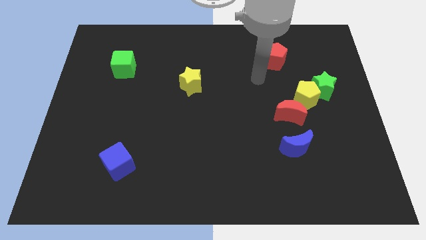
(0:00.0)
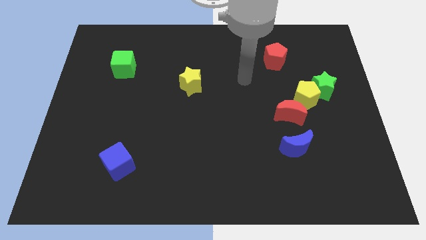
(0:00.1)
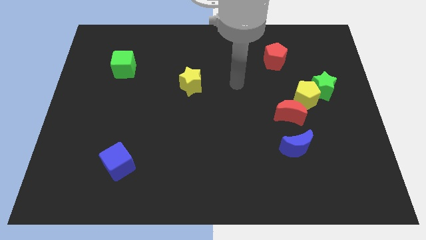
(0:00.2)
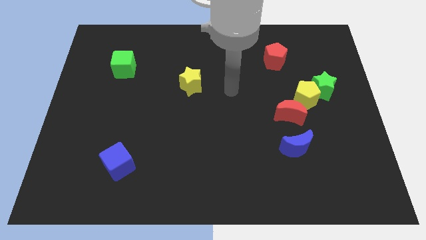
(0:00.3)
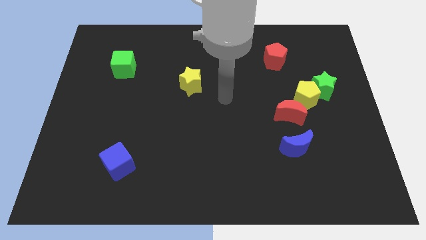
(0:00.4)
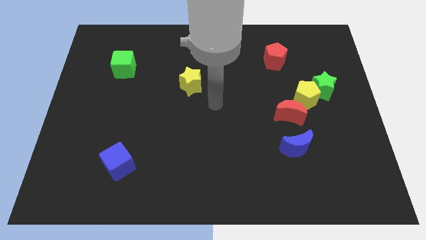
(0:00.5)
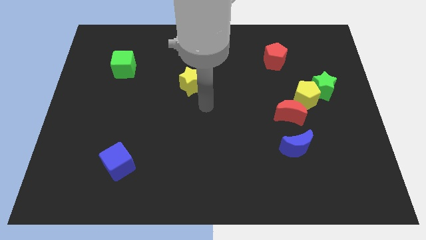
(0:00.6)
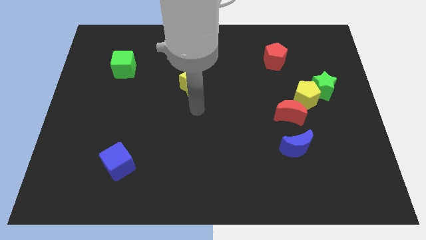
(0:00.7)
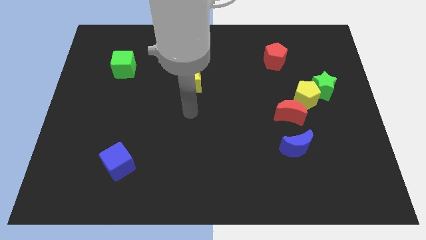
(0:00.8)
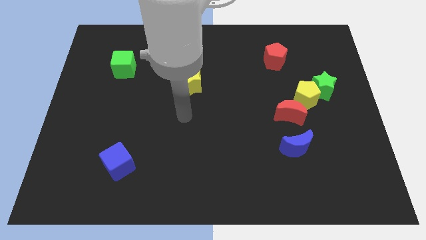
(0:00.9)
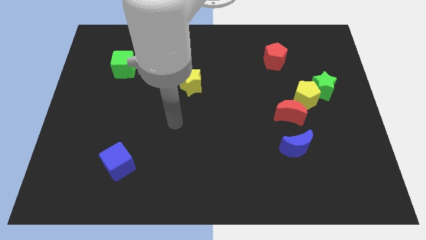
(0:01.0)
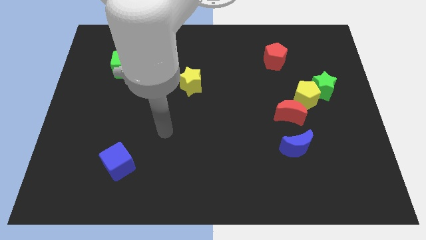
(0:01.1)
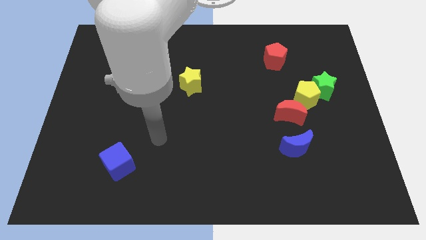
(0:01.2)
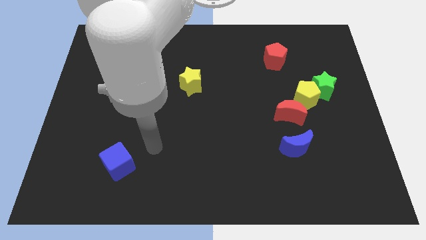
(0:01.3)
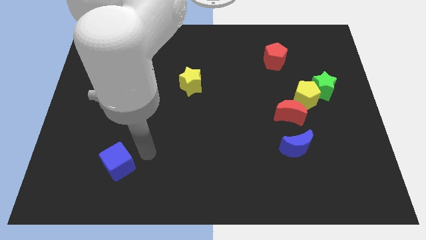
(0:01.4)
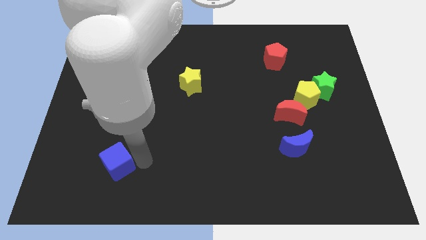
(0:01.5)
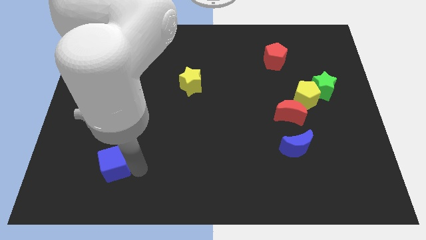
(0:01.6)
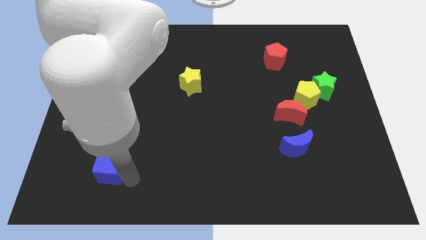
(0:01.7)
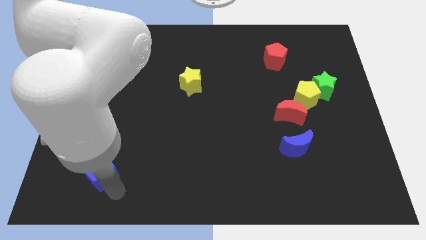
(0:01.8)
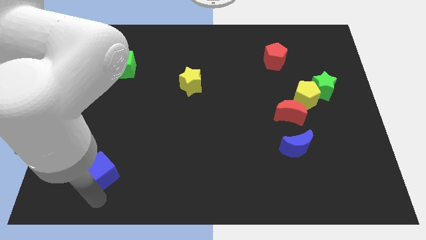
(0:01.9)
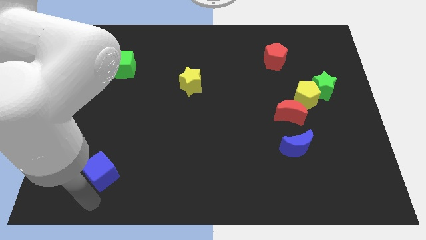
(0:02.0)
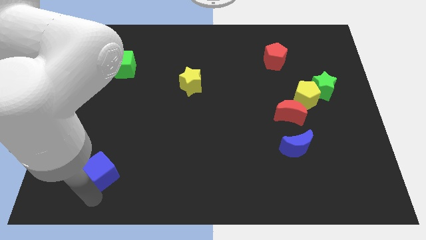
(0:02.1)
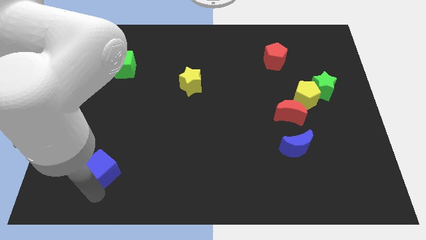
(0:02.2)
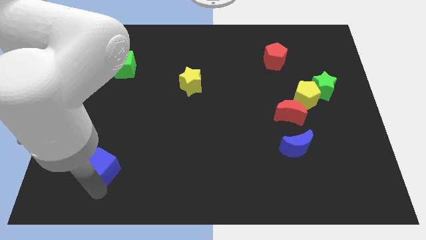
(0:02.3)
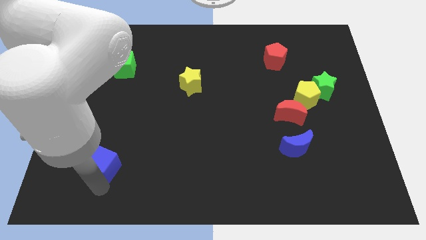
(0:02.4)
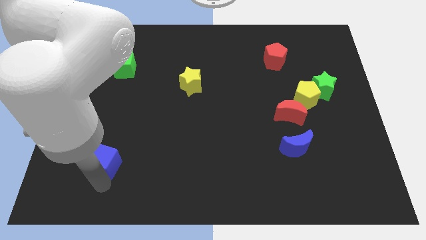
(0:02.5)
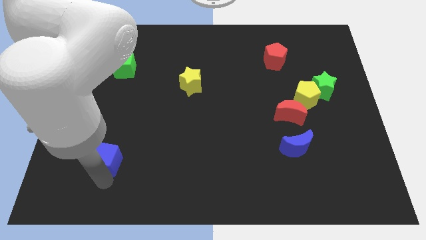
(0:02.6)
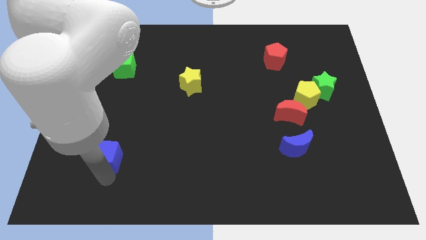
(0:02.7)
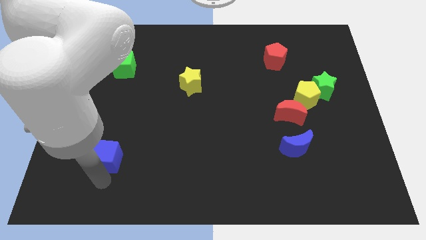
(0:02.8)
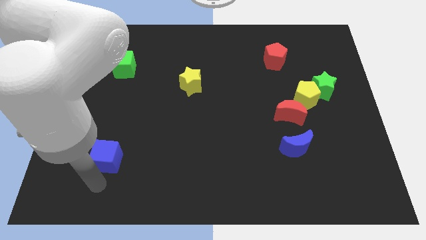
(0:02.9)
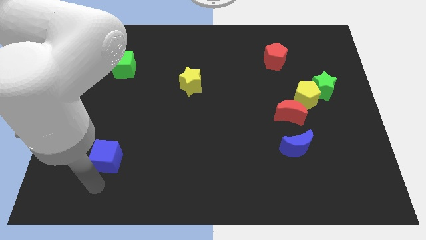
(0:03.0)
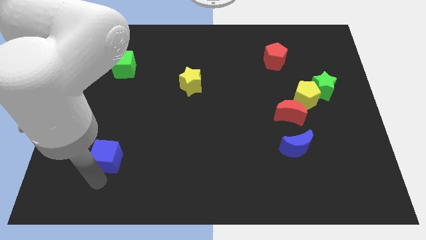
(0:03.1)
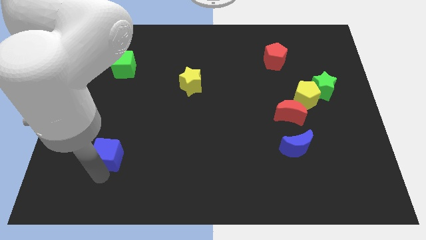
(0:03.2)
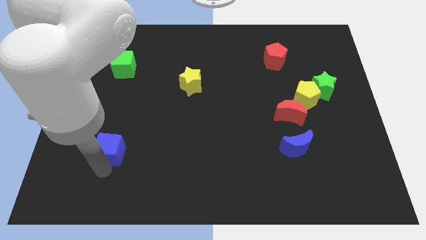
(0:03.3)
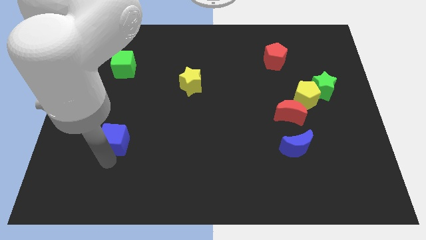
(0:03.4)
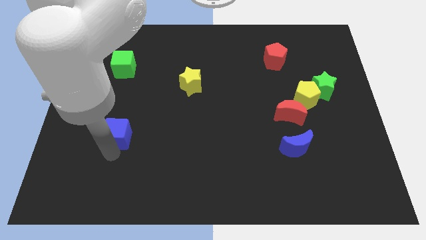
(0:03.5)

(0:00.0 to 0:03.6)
slightly push the blue cube up

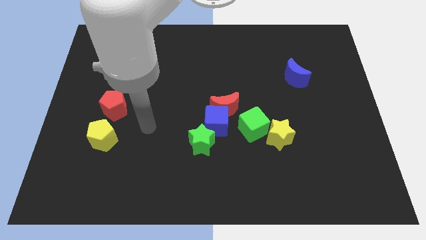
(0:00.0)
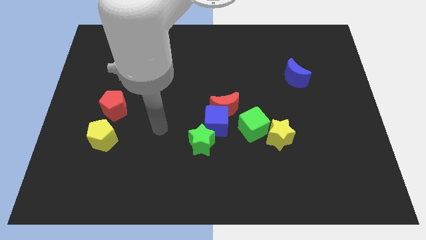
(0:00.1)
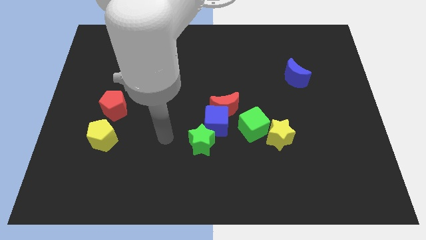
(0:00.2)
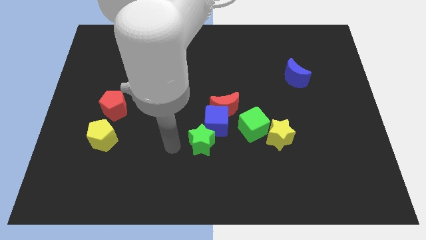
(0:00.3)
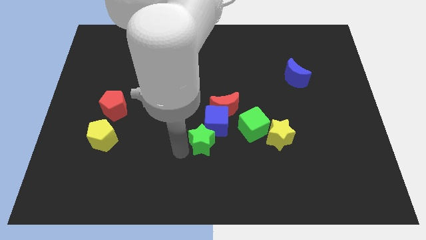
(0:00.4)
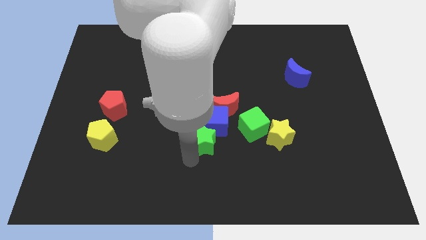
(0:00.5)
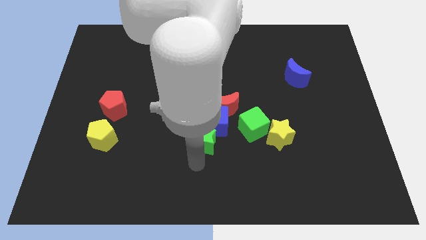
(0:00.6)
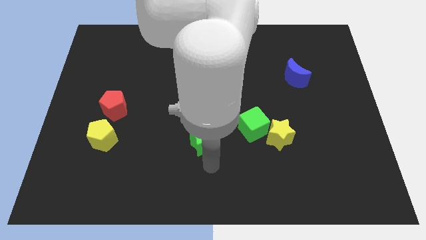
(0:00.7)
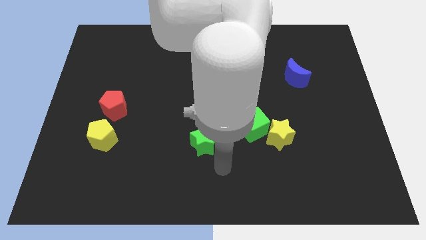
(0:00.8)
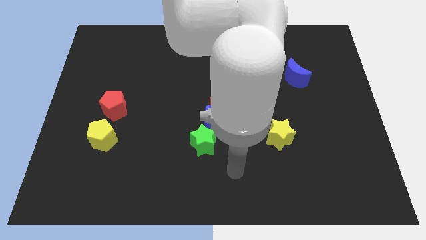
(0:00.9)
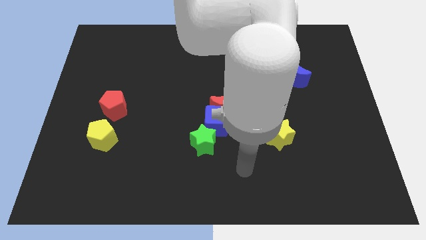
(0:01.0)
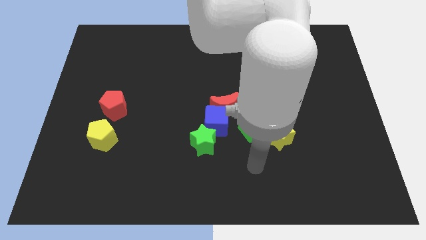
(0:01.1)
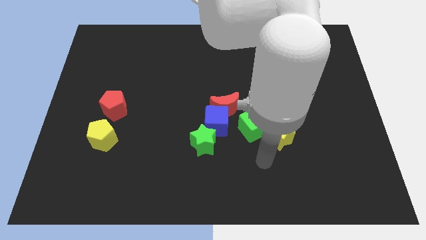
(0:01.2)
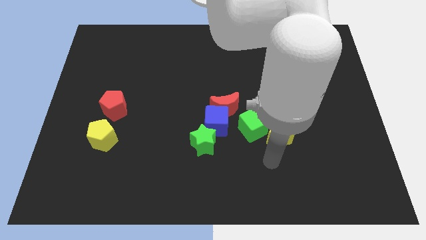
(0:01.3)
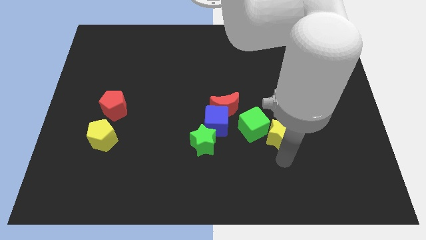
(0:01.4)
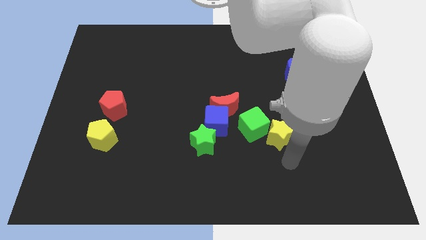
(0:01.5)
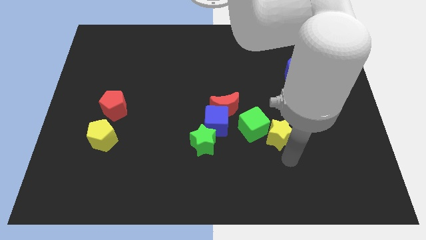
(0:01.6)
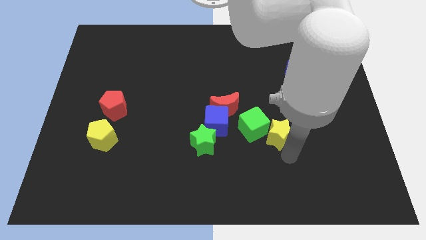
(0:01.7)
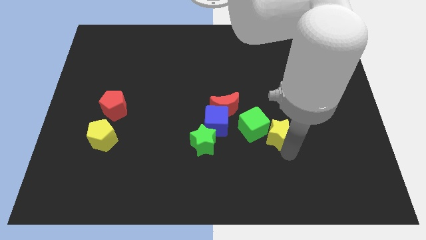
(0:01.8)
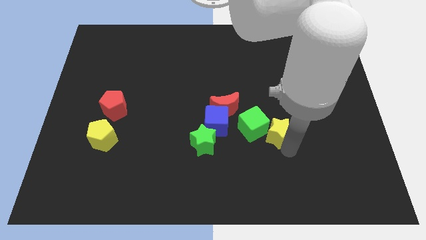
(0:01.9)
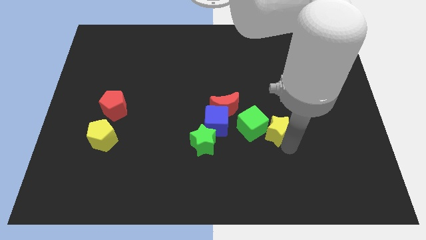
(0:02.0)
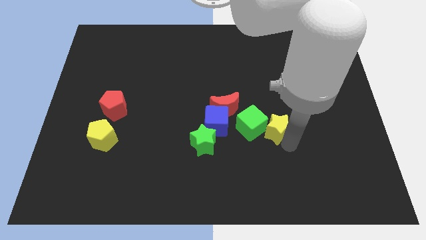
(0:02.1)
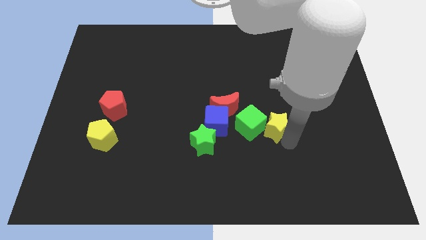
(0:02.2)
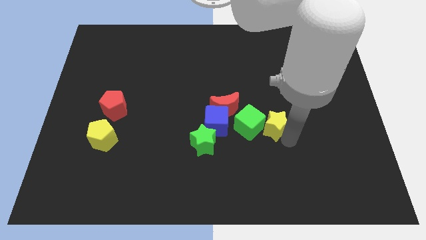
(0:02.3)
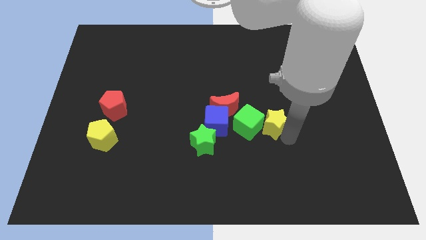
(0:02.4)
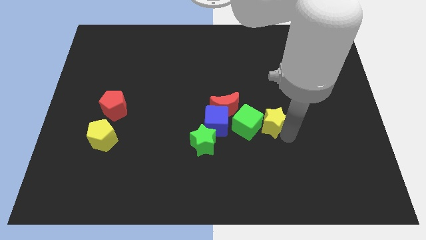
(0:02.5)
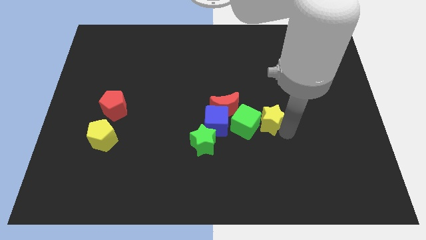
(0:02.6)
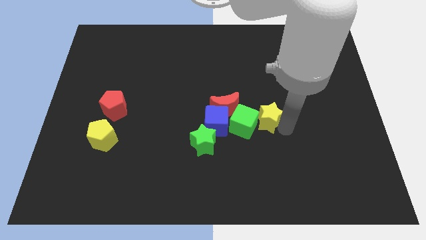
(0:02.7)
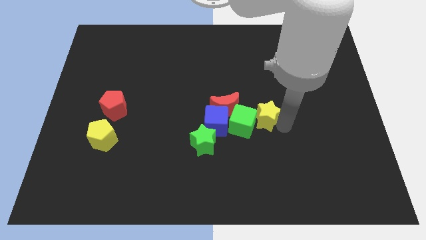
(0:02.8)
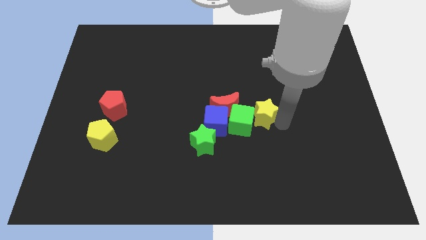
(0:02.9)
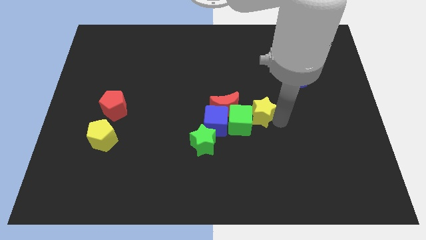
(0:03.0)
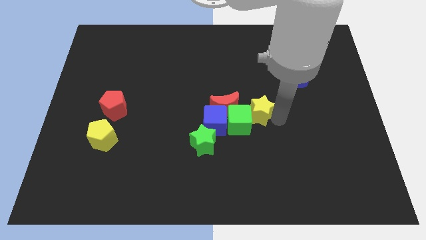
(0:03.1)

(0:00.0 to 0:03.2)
move the yellow star diagonally up and to the left slightly

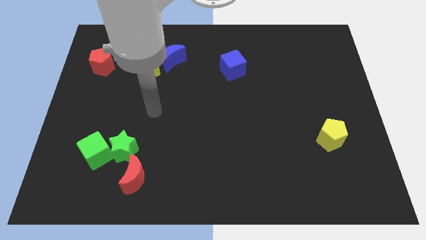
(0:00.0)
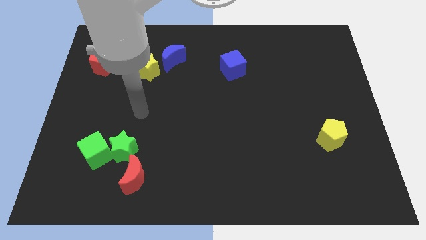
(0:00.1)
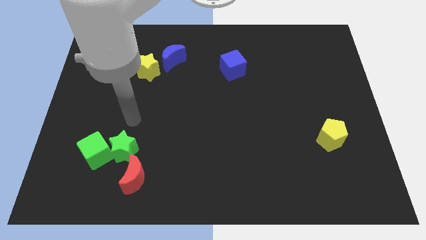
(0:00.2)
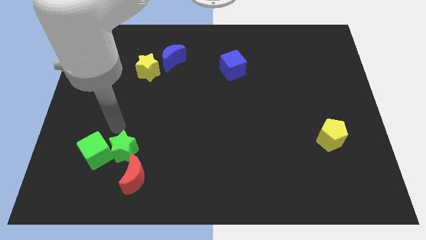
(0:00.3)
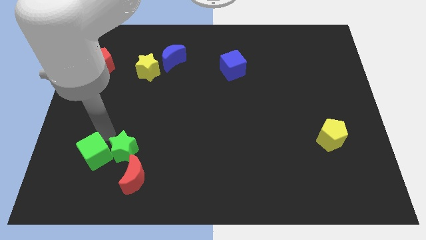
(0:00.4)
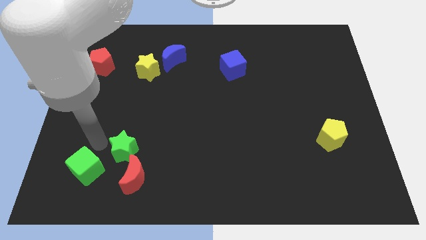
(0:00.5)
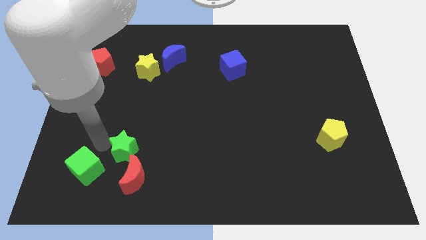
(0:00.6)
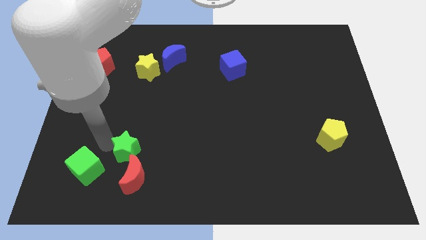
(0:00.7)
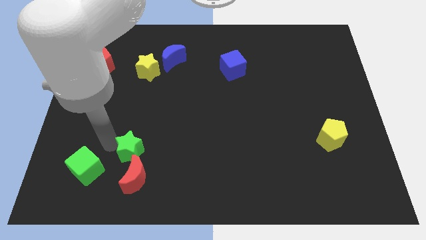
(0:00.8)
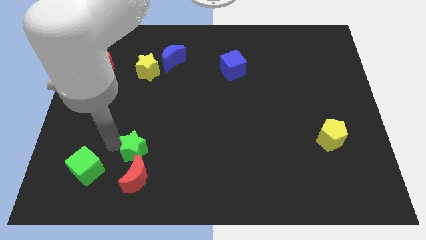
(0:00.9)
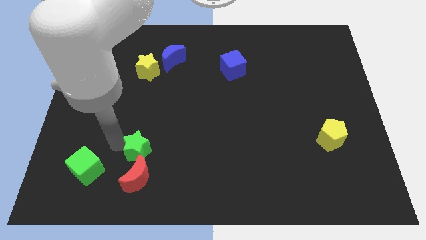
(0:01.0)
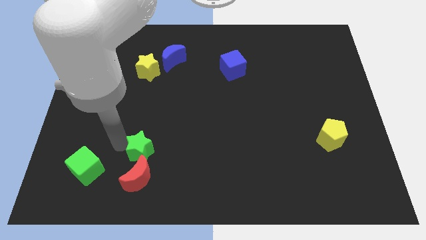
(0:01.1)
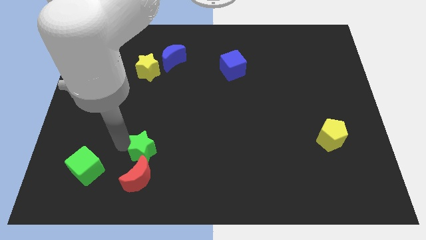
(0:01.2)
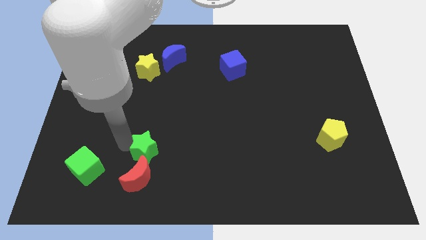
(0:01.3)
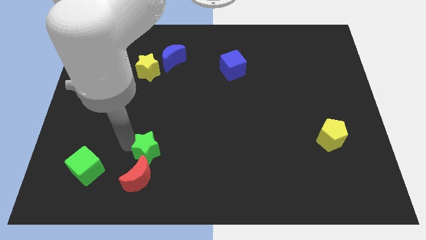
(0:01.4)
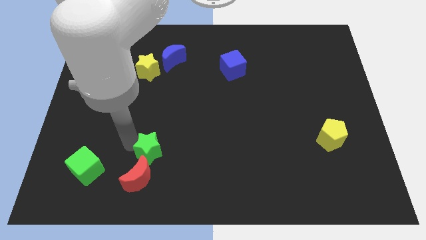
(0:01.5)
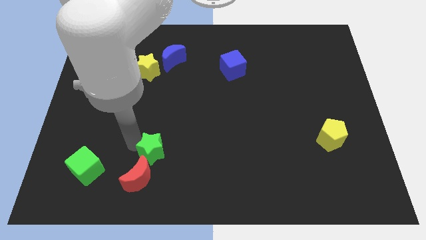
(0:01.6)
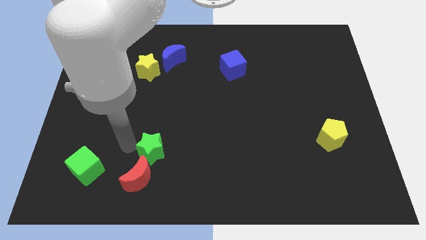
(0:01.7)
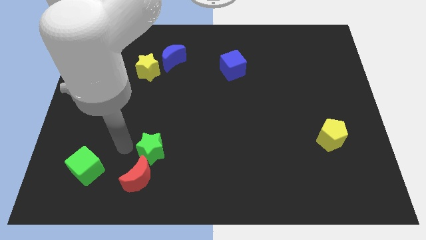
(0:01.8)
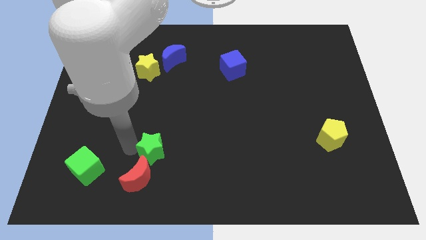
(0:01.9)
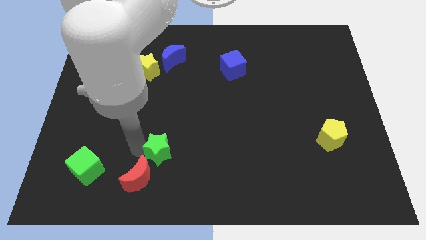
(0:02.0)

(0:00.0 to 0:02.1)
push the green star to the right a little
